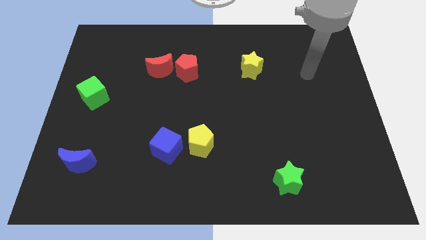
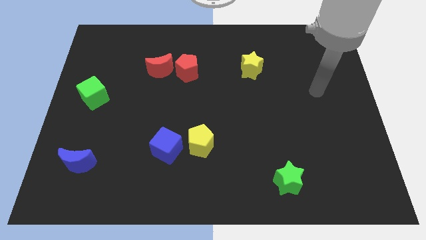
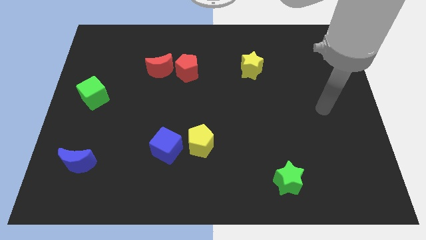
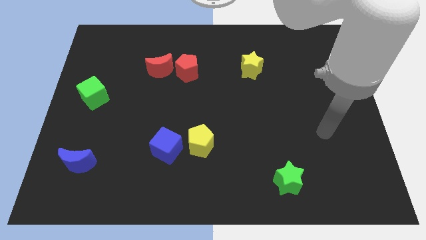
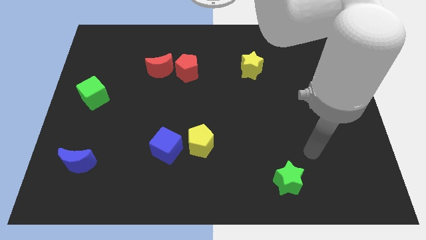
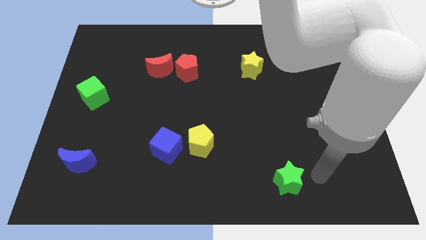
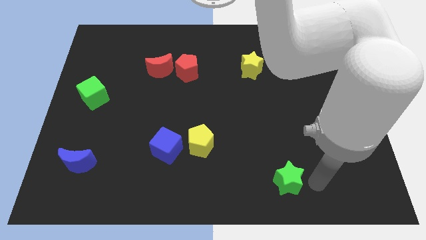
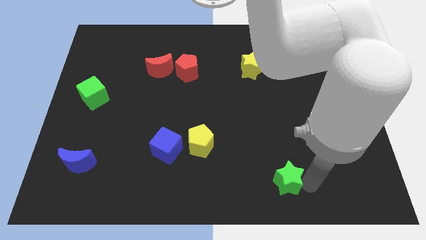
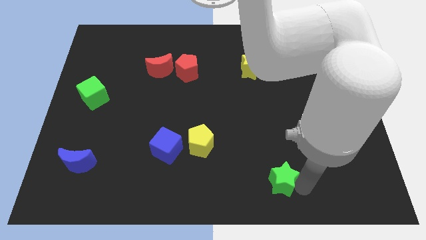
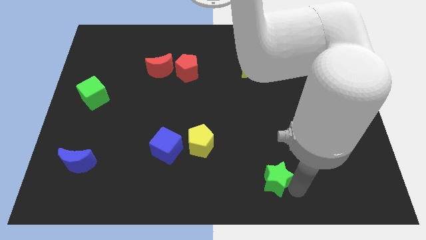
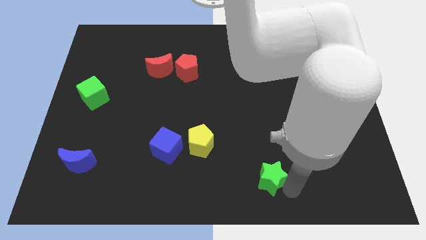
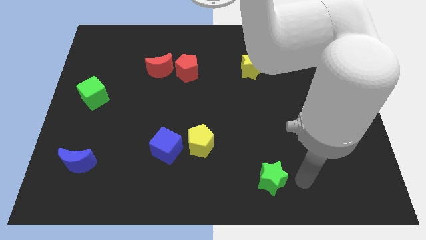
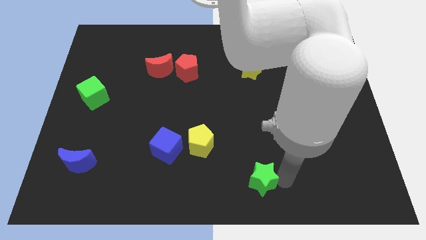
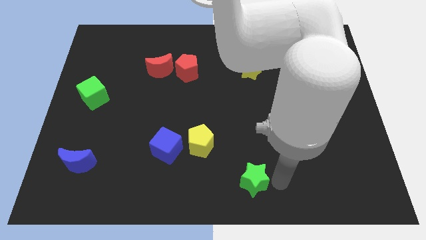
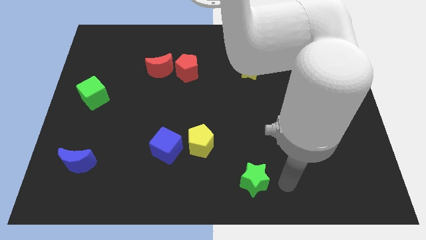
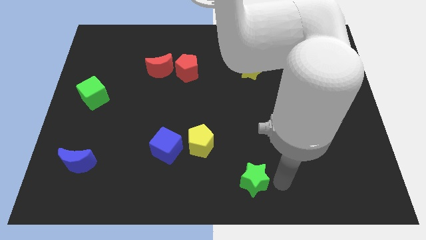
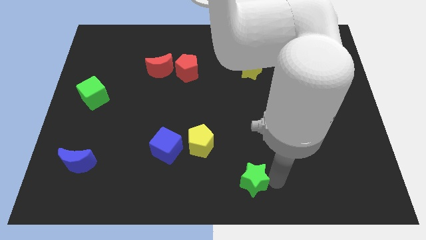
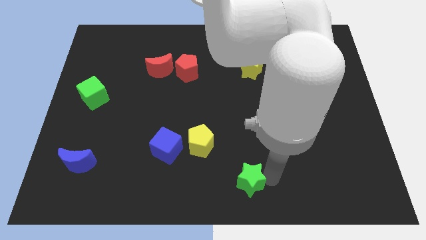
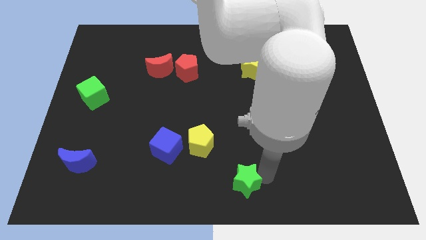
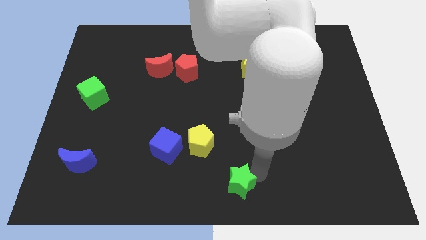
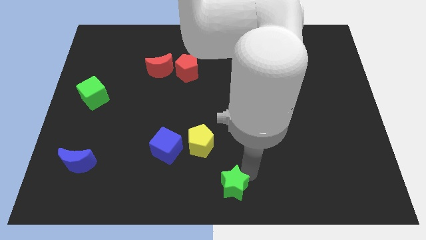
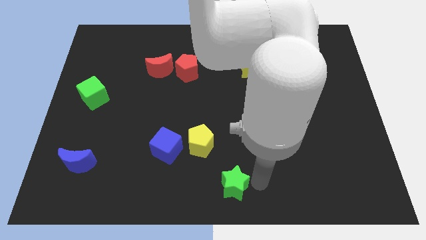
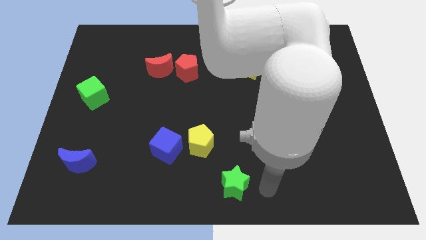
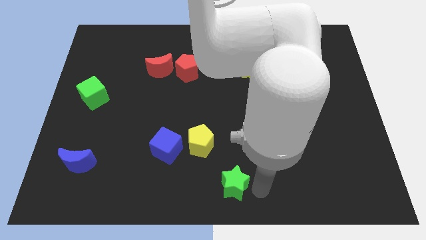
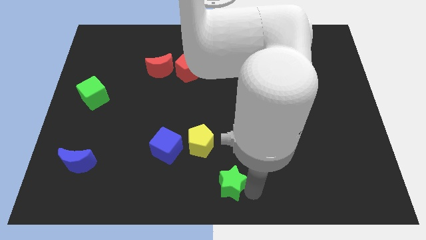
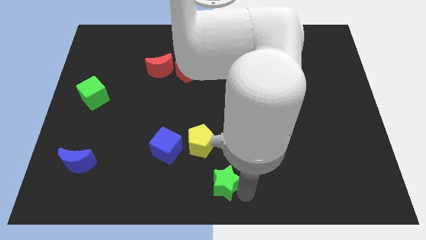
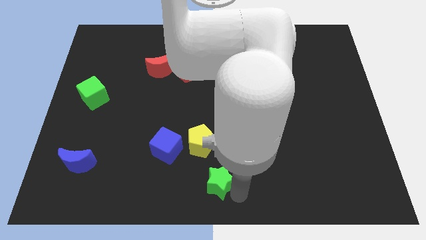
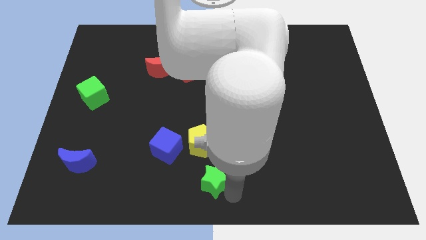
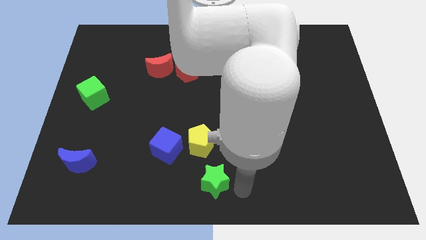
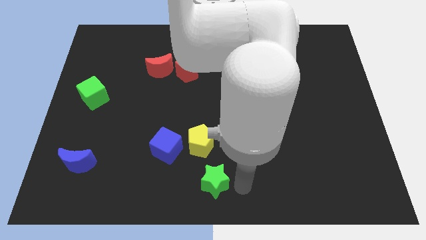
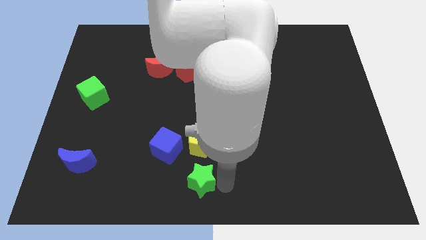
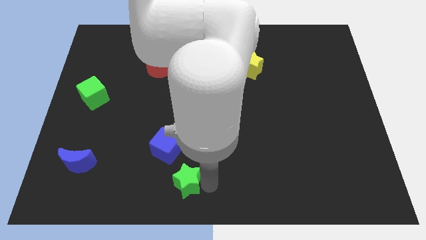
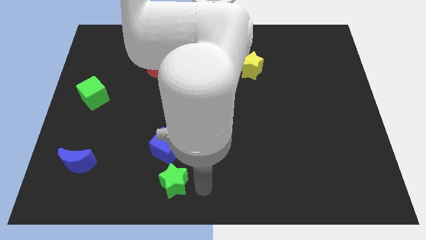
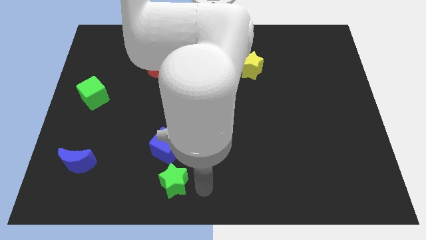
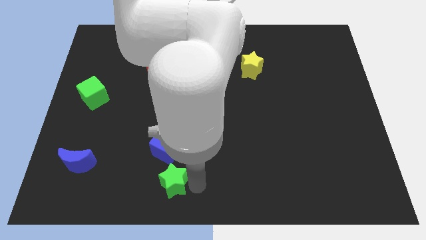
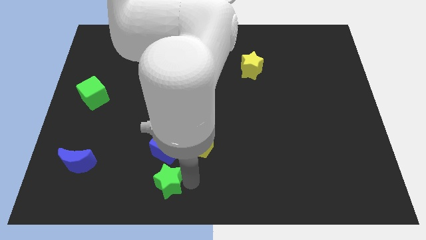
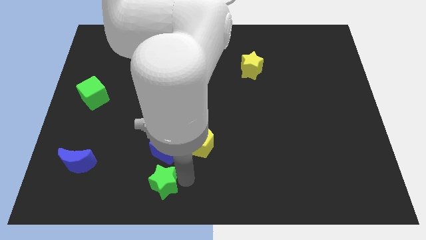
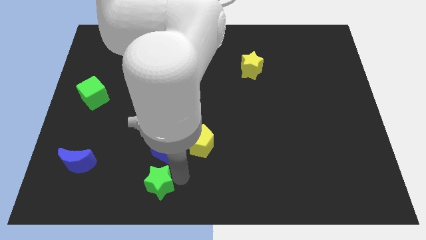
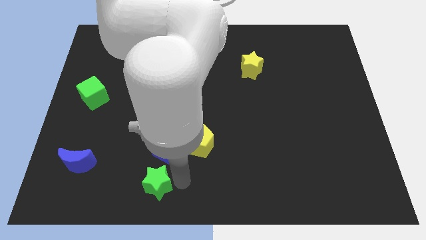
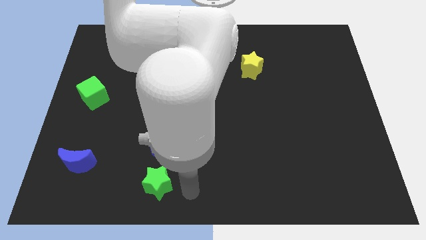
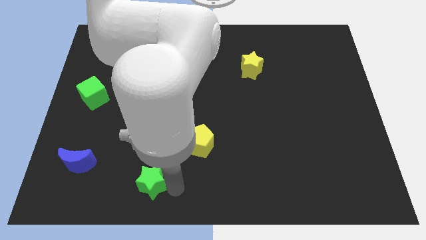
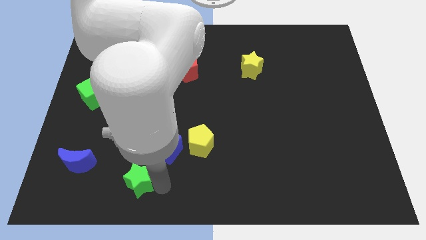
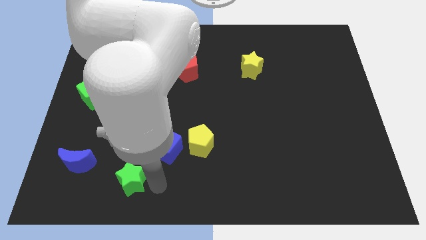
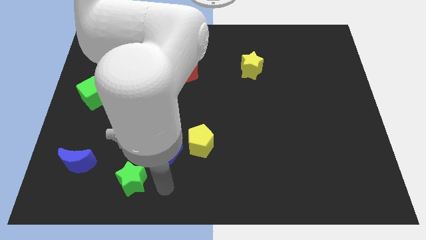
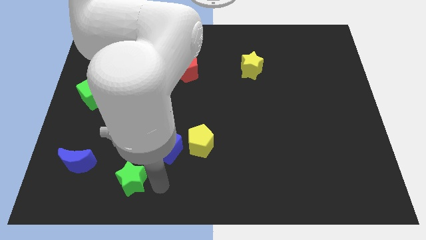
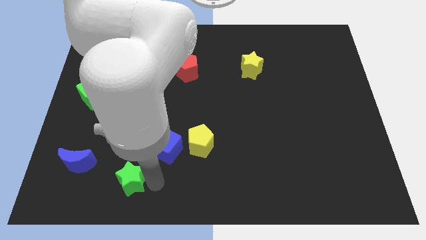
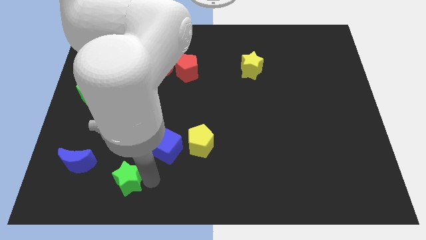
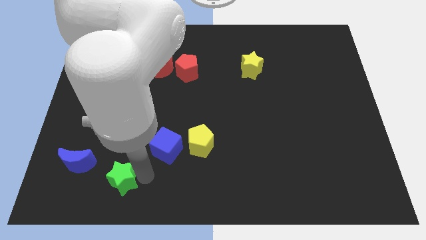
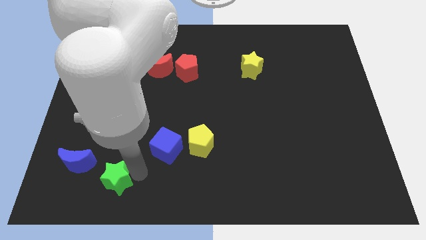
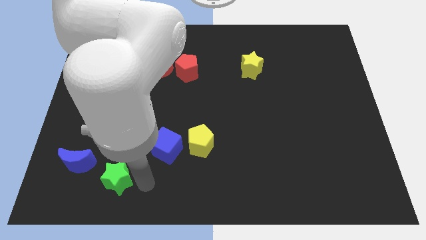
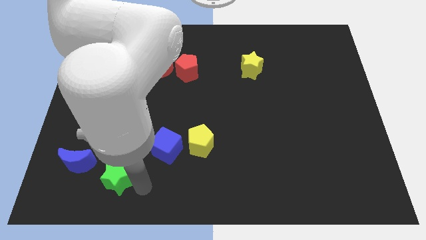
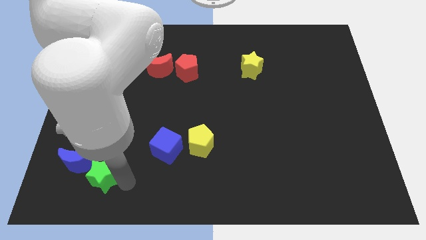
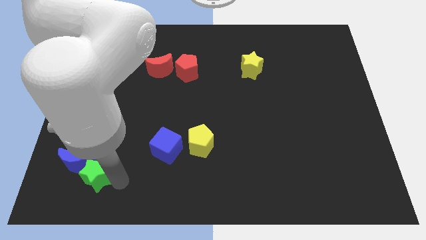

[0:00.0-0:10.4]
put the green star close to the blue moon

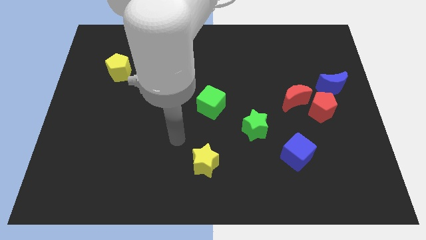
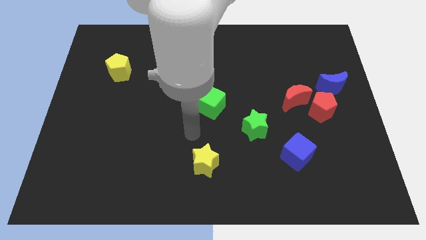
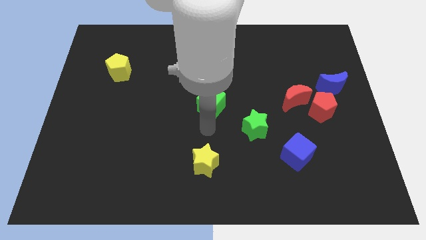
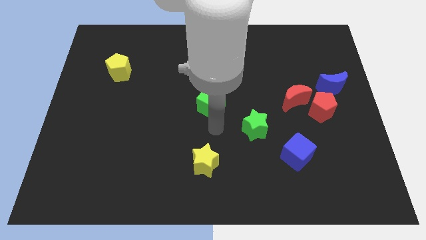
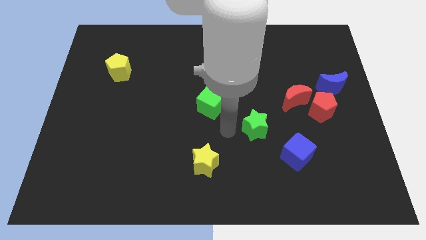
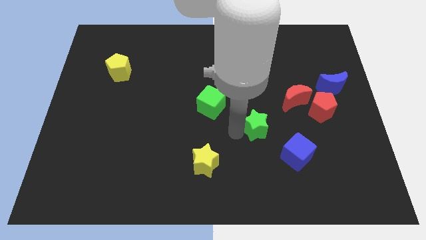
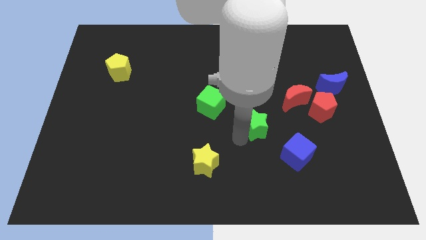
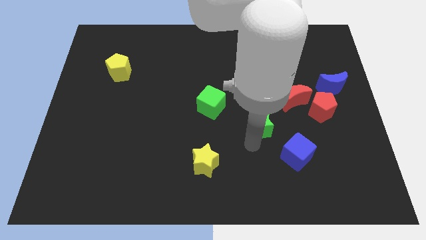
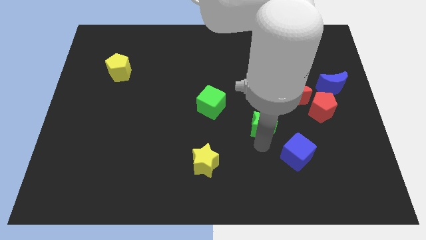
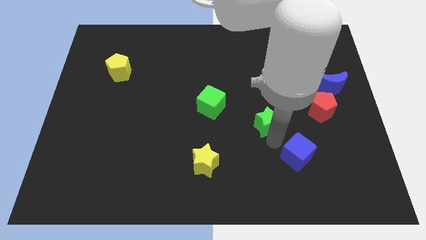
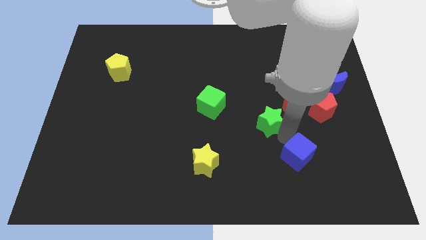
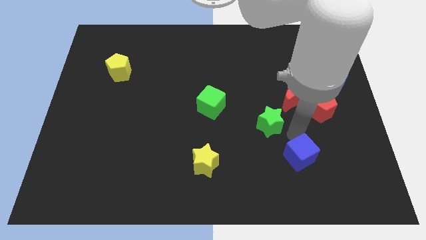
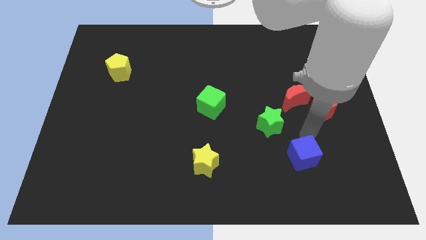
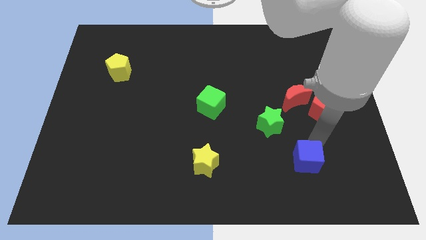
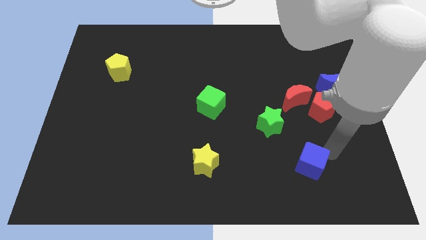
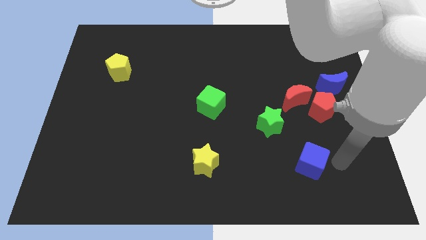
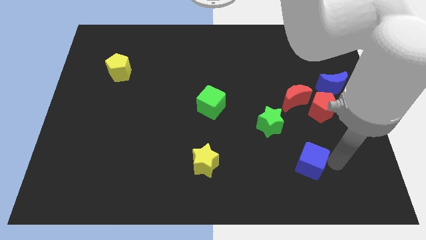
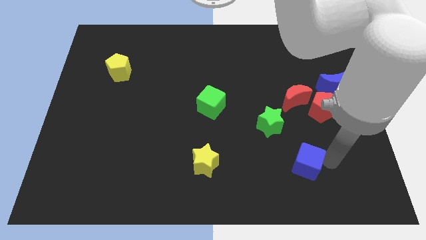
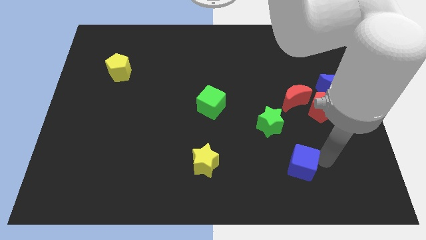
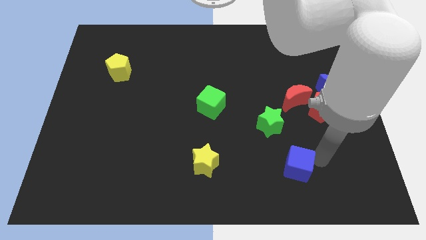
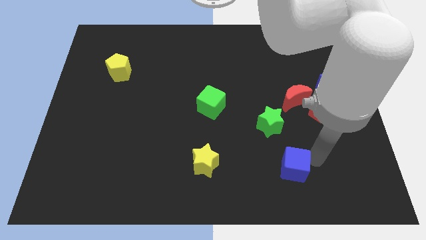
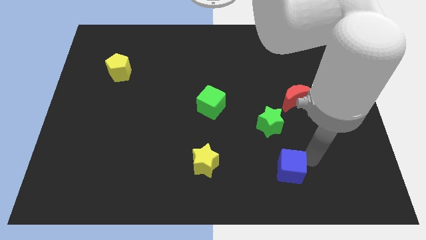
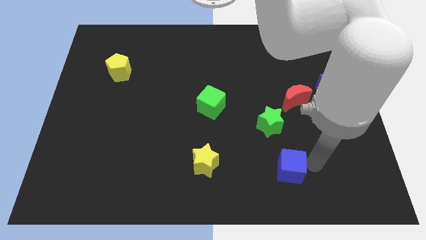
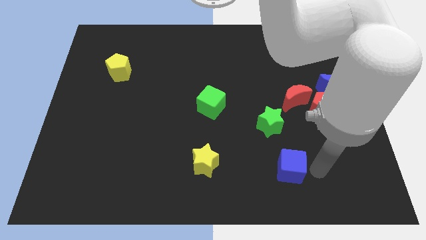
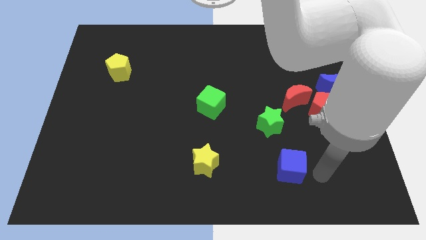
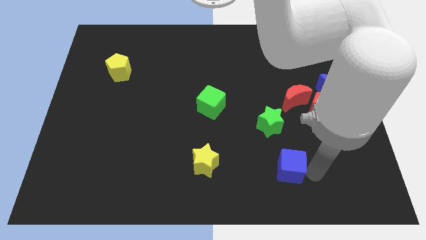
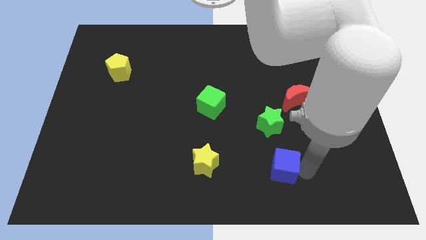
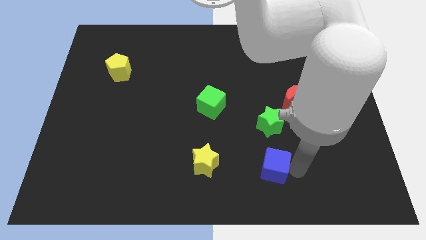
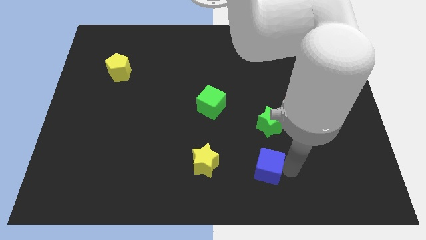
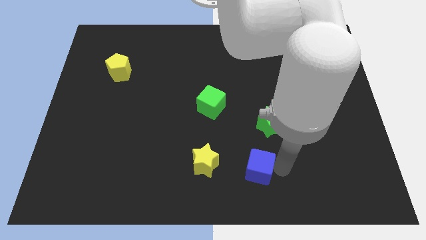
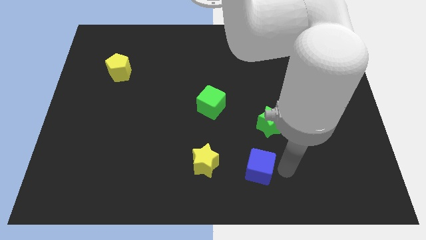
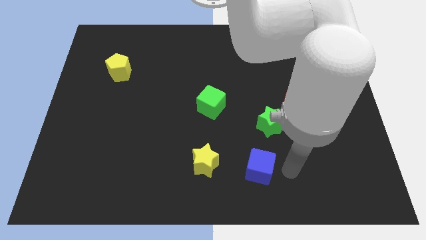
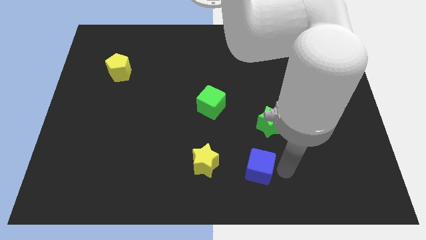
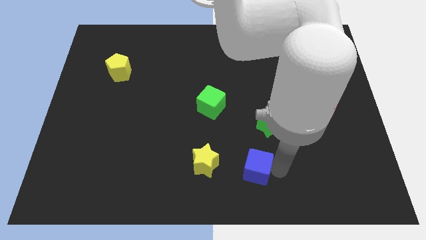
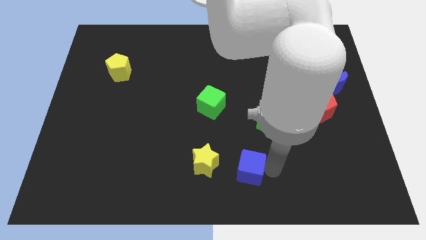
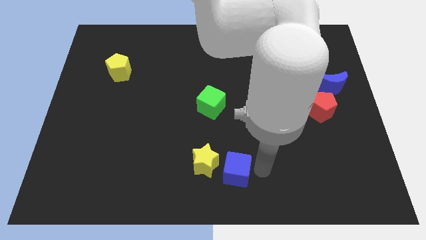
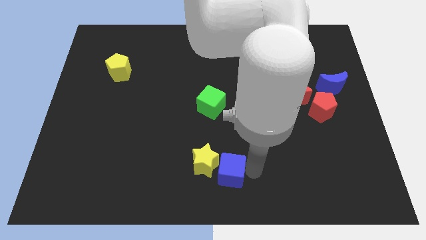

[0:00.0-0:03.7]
push the blue cube towards the yellow star
